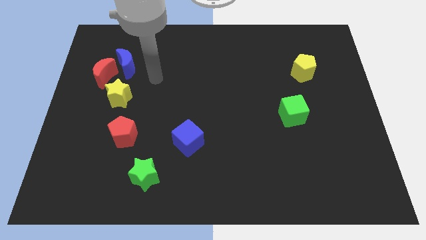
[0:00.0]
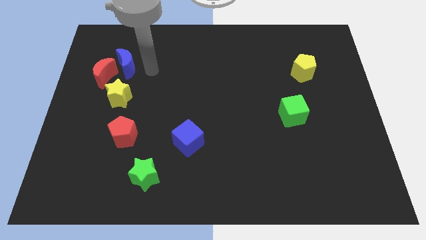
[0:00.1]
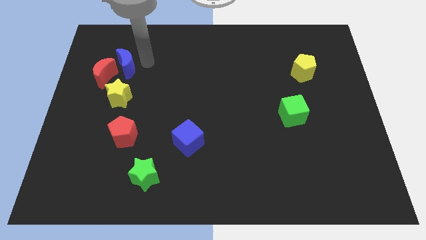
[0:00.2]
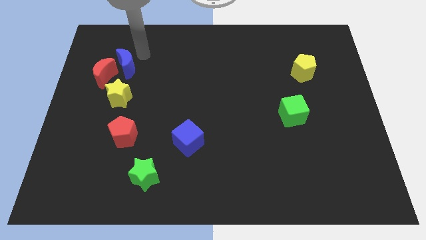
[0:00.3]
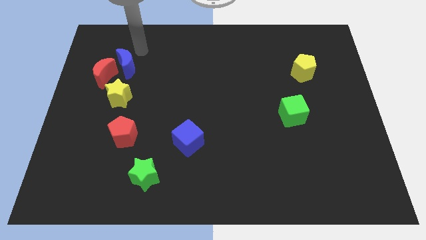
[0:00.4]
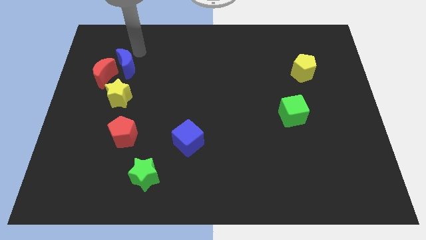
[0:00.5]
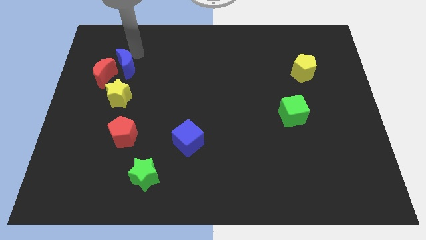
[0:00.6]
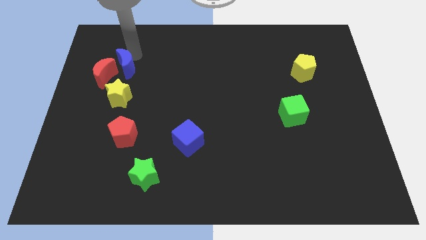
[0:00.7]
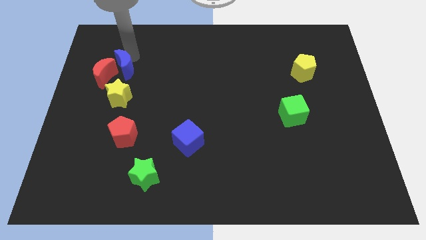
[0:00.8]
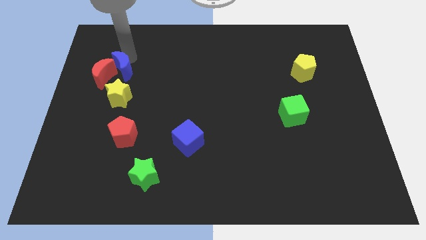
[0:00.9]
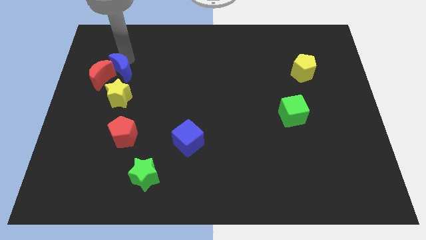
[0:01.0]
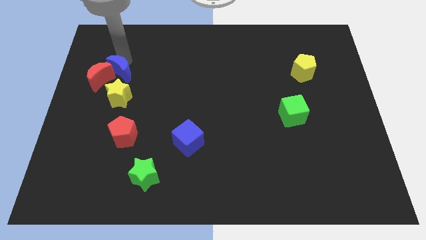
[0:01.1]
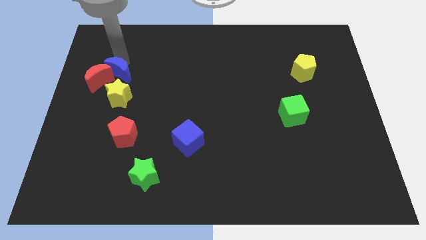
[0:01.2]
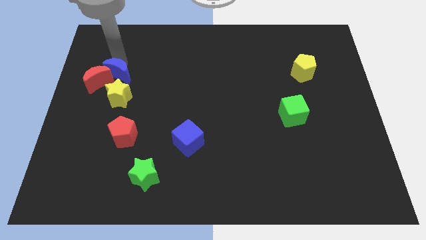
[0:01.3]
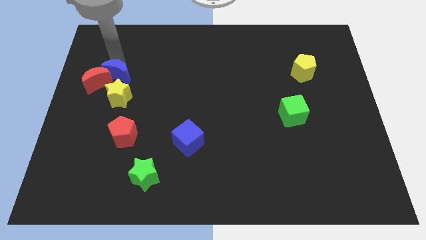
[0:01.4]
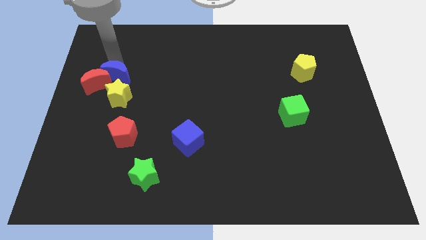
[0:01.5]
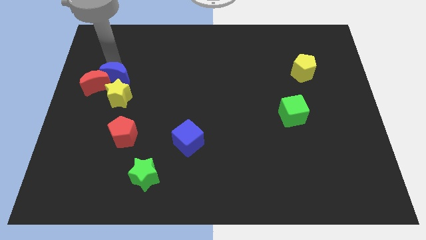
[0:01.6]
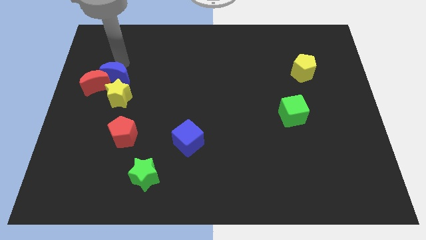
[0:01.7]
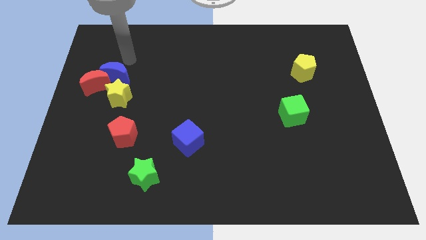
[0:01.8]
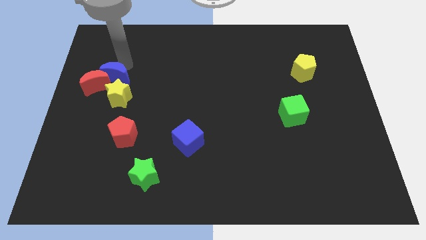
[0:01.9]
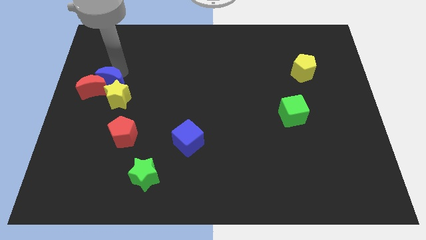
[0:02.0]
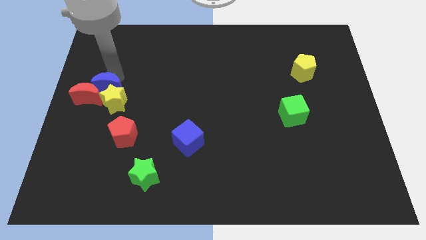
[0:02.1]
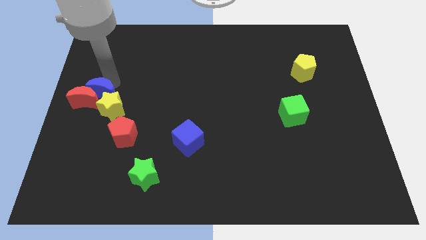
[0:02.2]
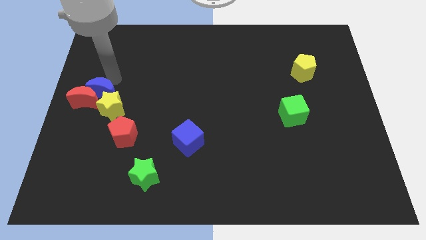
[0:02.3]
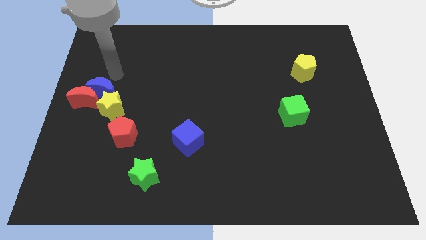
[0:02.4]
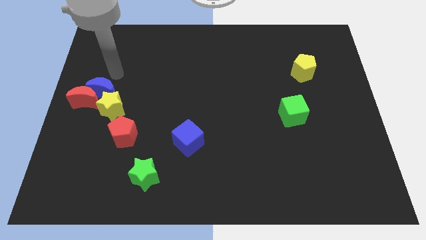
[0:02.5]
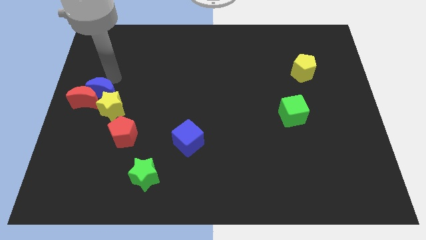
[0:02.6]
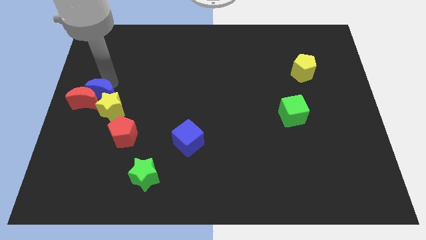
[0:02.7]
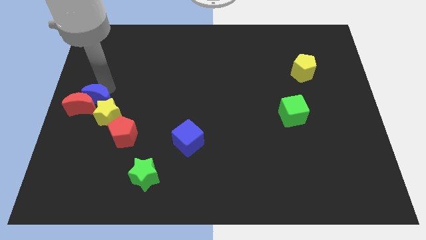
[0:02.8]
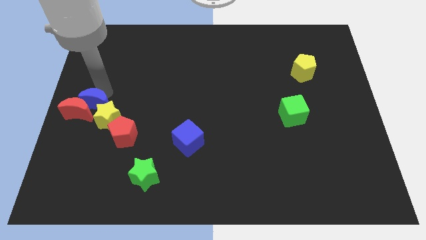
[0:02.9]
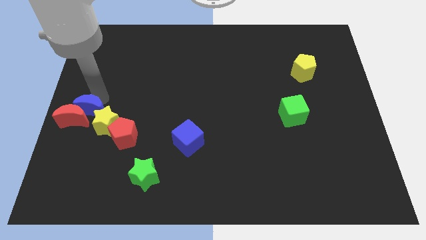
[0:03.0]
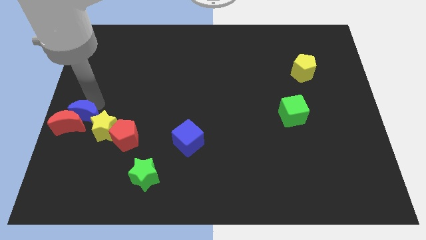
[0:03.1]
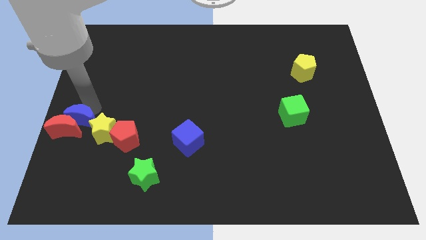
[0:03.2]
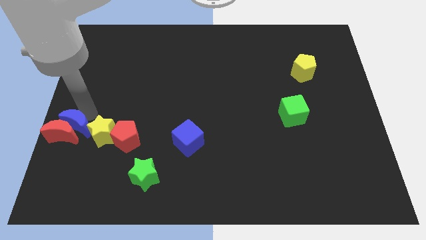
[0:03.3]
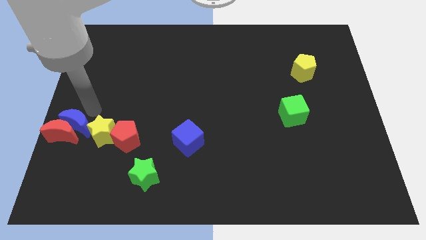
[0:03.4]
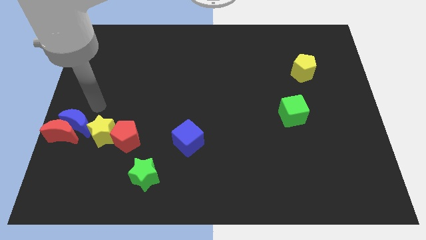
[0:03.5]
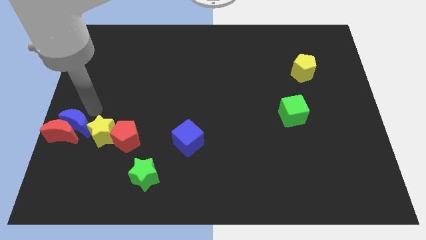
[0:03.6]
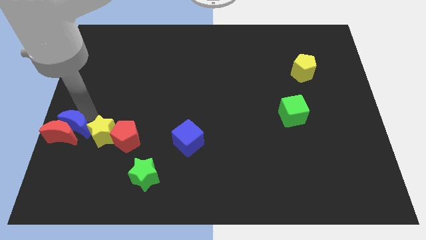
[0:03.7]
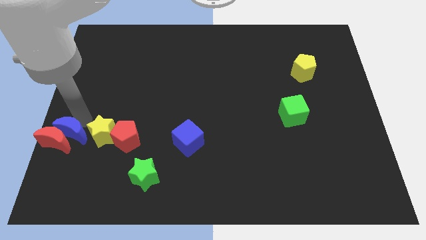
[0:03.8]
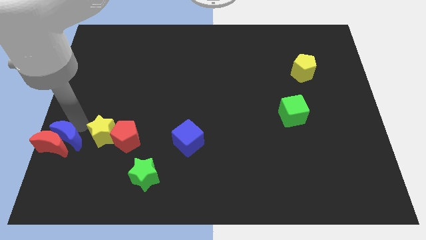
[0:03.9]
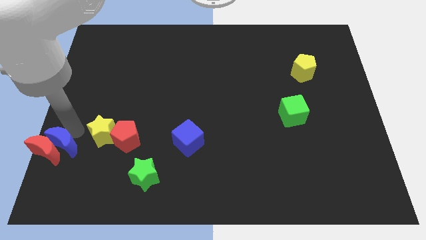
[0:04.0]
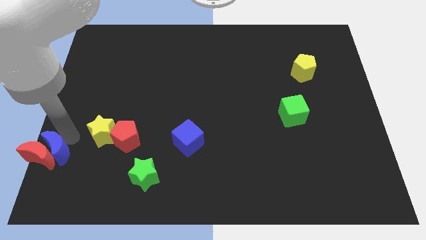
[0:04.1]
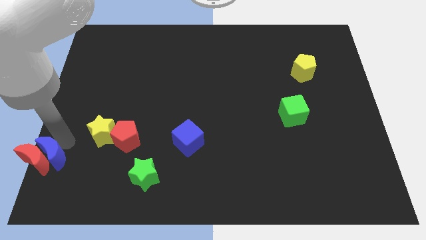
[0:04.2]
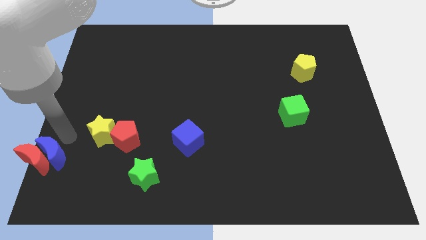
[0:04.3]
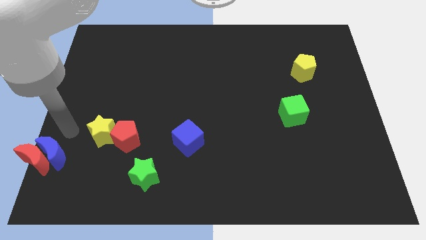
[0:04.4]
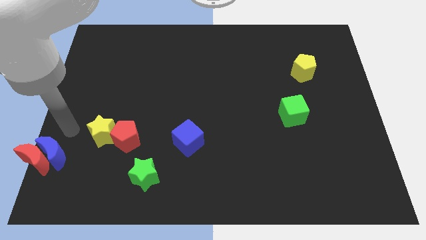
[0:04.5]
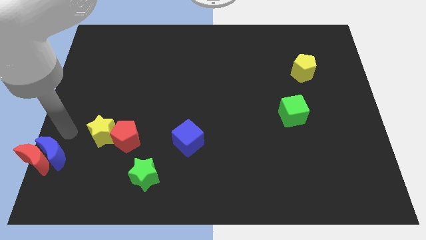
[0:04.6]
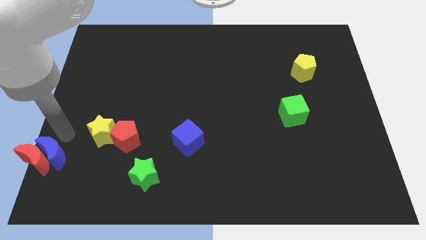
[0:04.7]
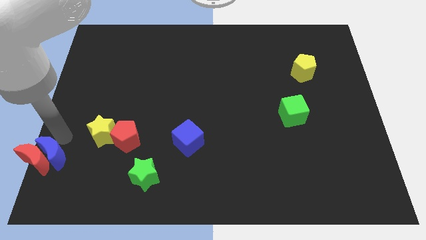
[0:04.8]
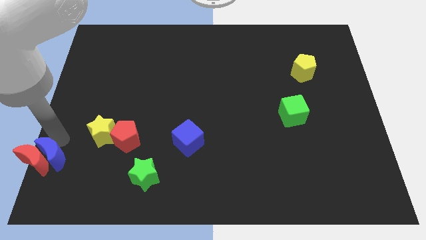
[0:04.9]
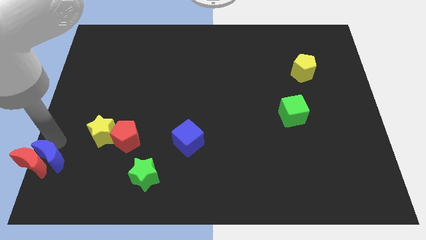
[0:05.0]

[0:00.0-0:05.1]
put the blue moon to the bottom left

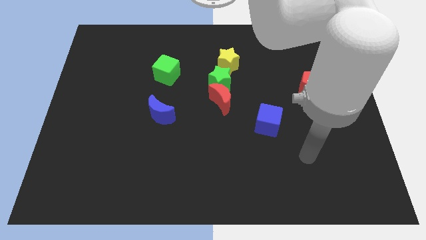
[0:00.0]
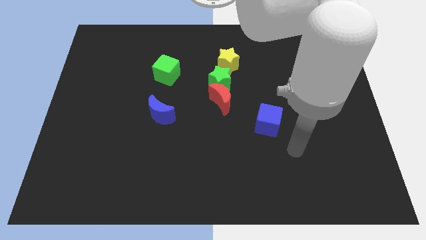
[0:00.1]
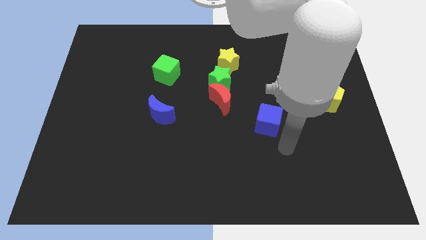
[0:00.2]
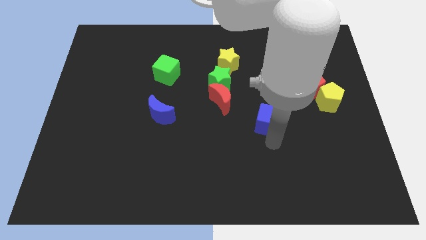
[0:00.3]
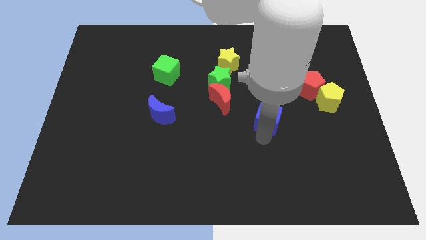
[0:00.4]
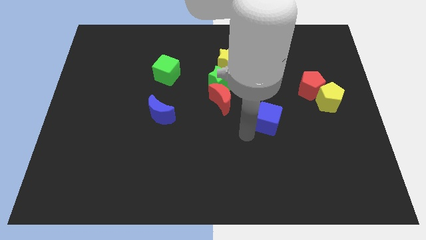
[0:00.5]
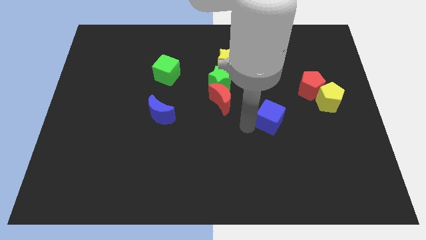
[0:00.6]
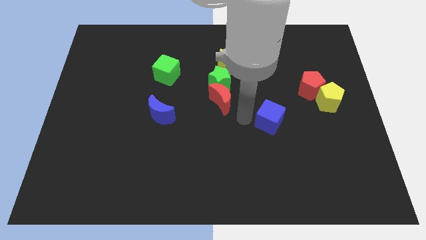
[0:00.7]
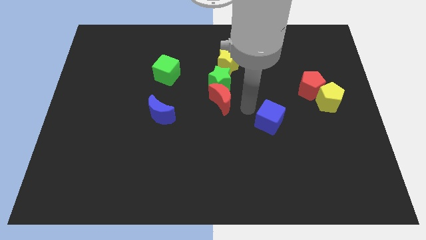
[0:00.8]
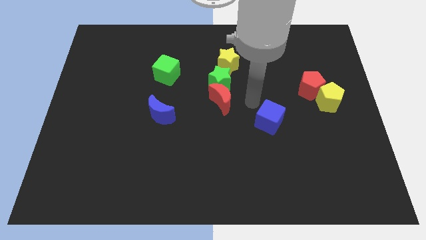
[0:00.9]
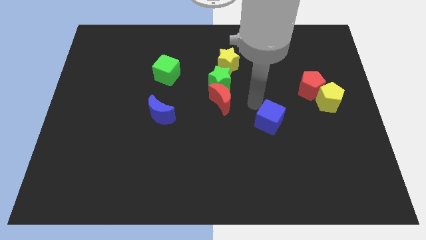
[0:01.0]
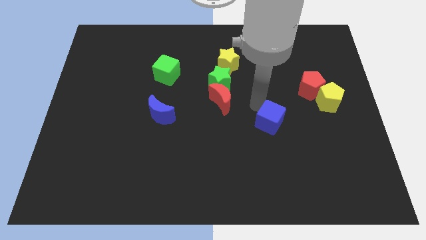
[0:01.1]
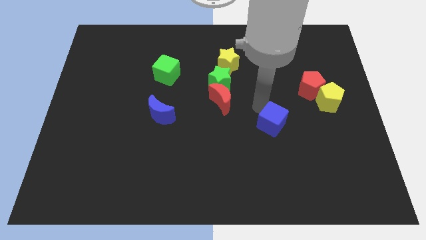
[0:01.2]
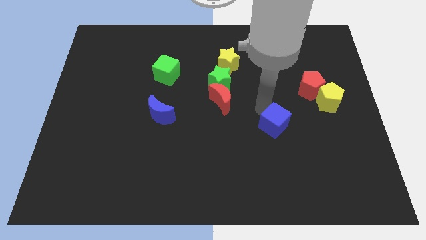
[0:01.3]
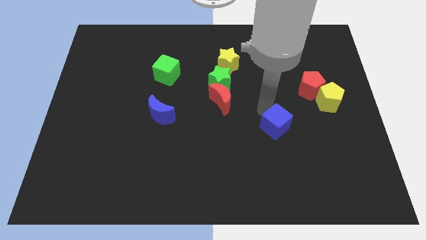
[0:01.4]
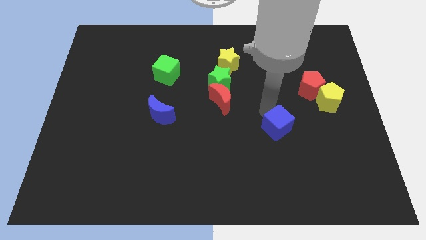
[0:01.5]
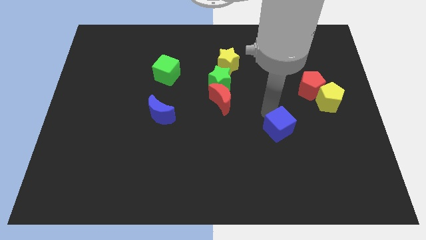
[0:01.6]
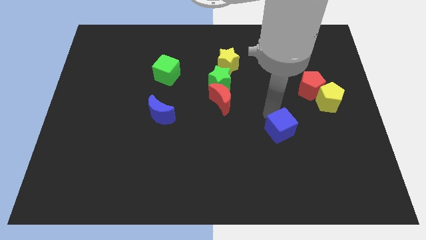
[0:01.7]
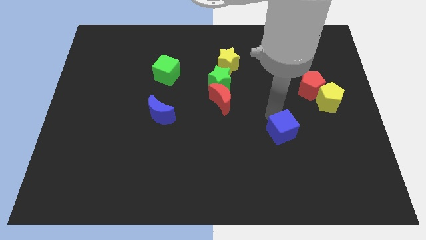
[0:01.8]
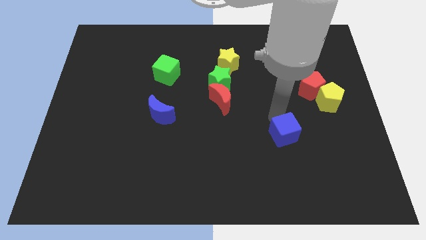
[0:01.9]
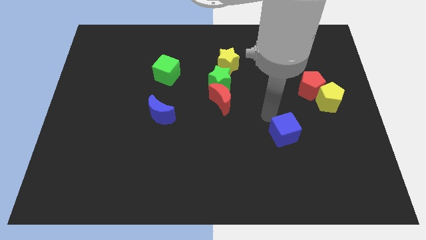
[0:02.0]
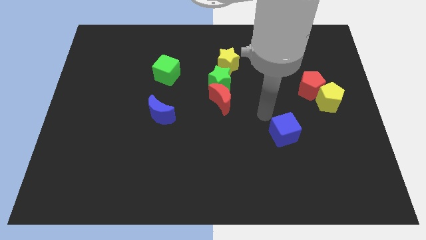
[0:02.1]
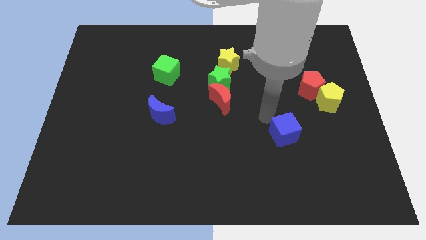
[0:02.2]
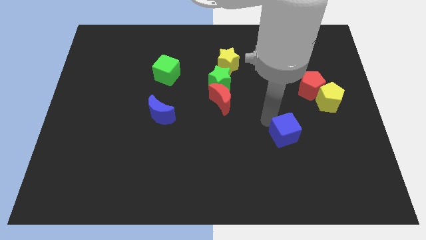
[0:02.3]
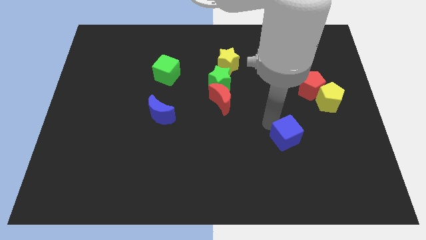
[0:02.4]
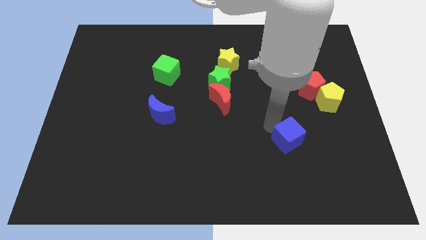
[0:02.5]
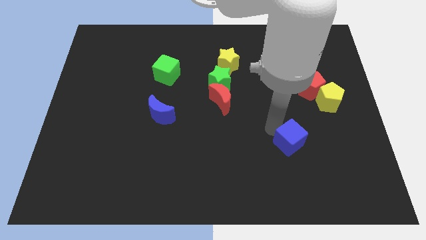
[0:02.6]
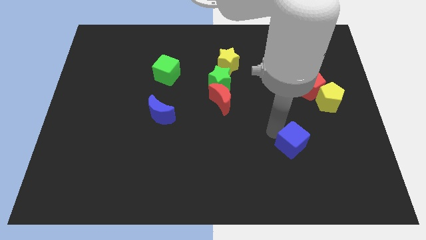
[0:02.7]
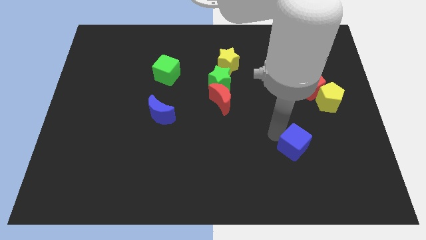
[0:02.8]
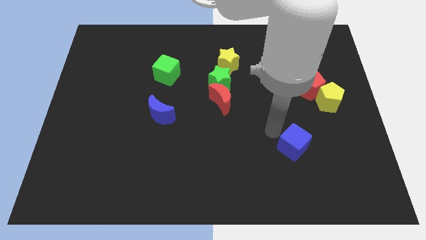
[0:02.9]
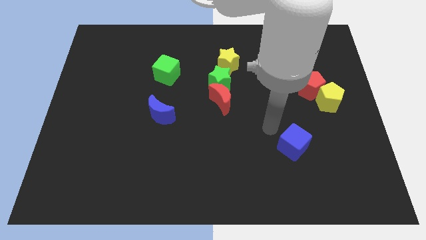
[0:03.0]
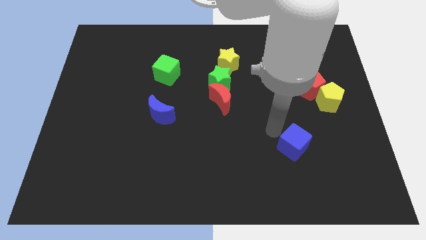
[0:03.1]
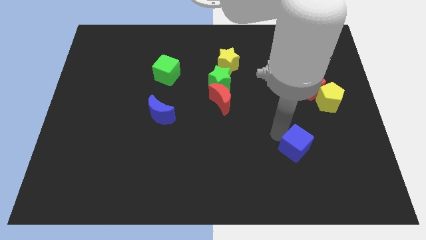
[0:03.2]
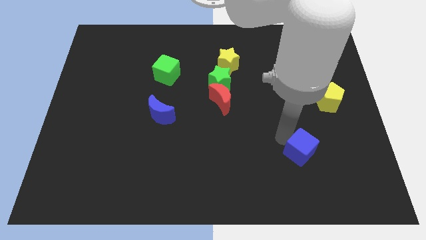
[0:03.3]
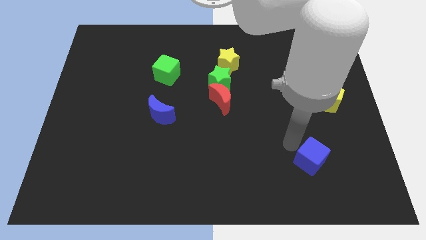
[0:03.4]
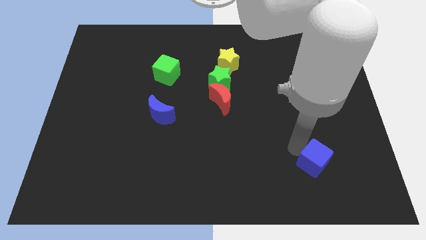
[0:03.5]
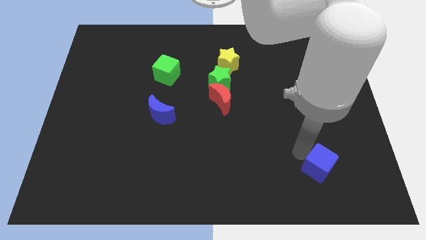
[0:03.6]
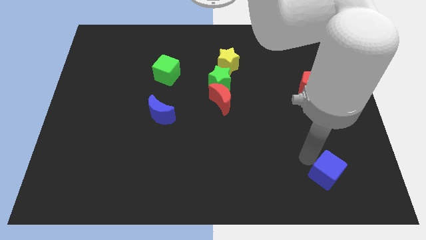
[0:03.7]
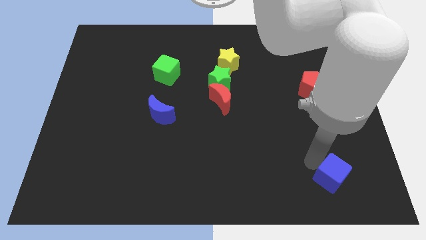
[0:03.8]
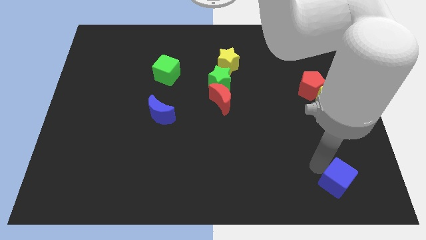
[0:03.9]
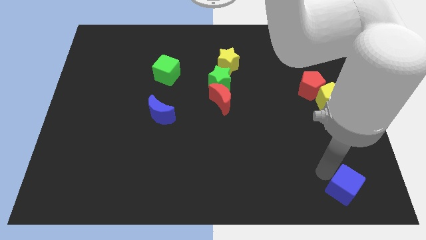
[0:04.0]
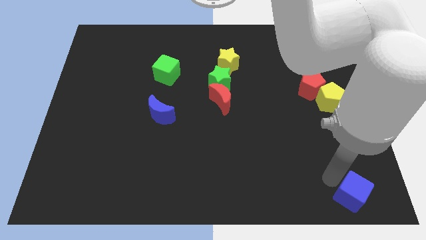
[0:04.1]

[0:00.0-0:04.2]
push the blue cube to the lower right corner
